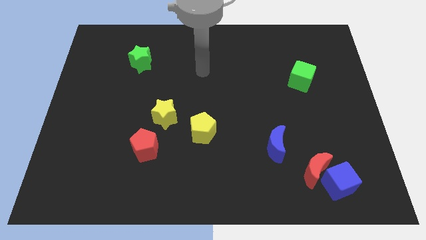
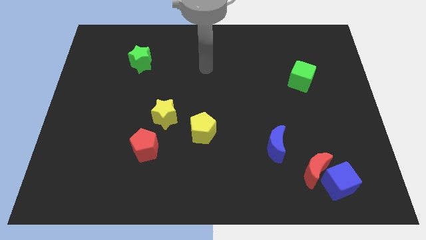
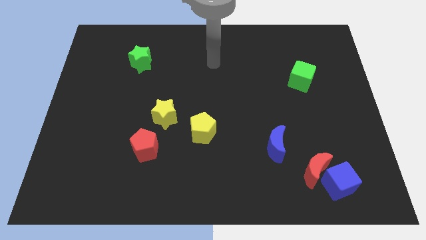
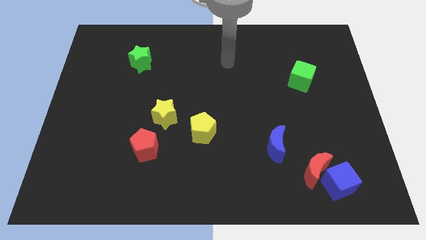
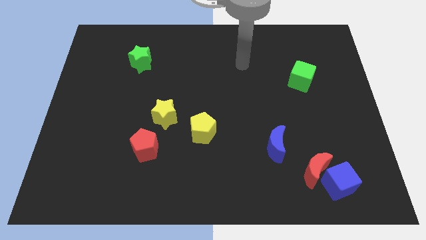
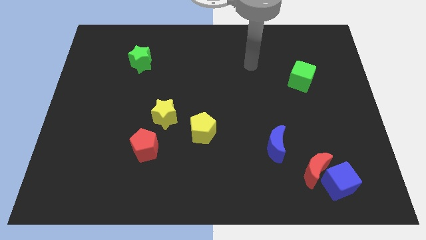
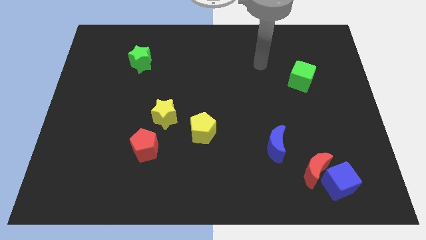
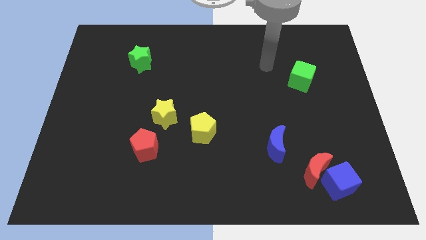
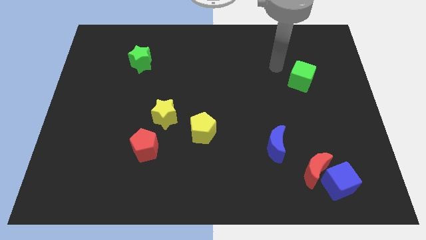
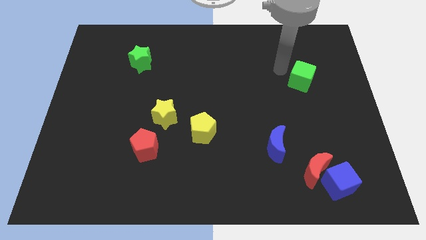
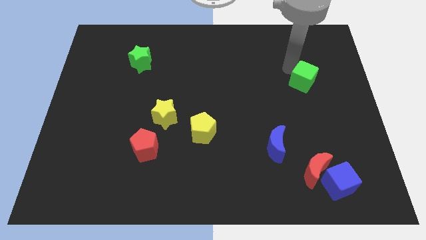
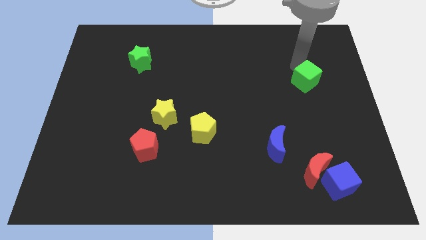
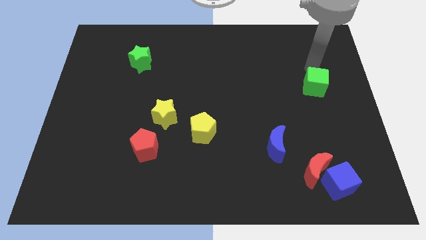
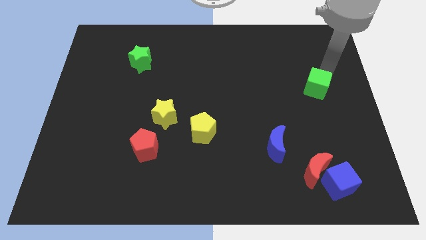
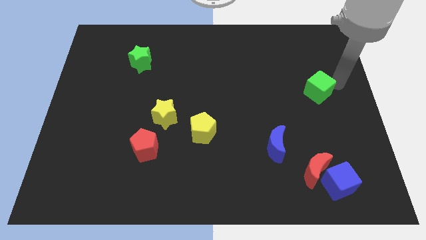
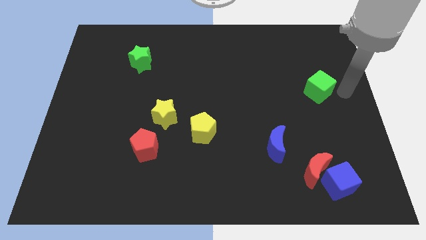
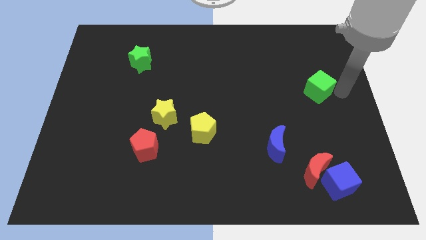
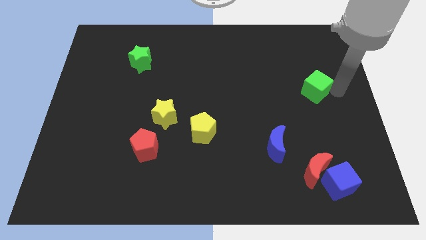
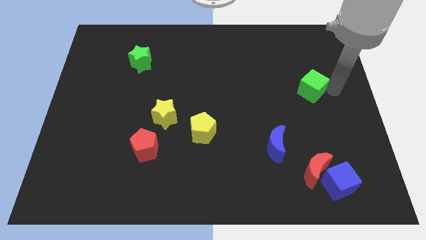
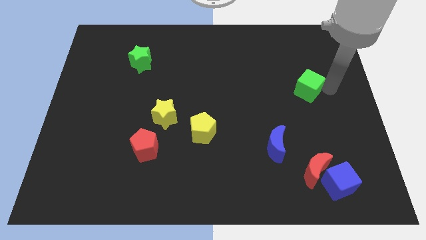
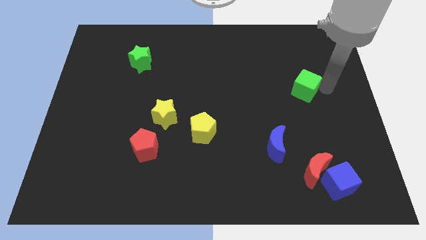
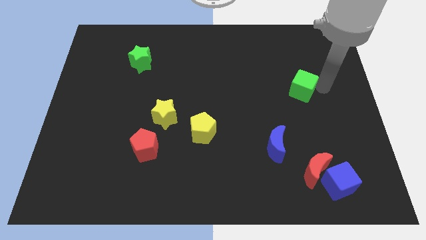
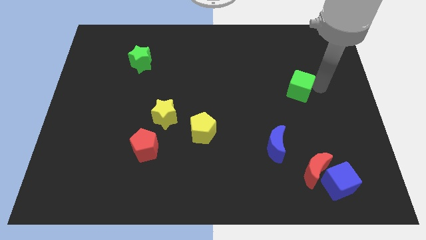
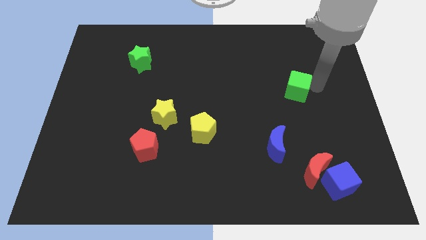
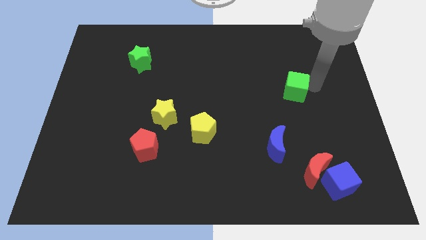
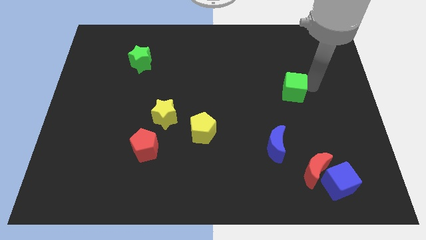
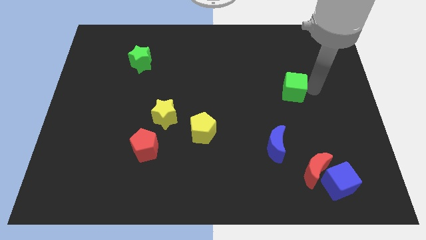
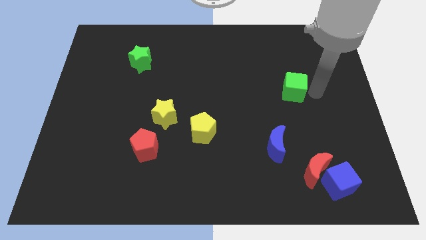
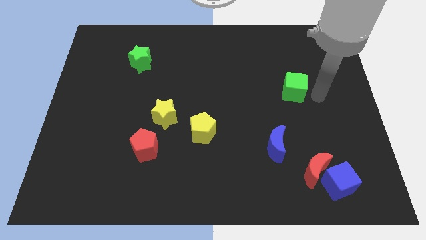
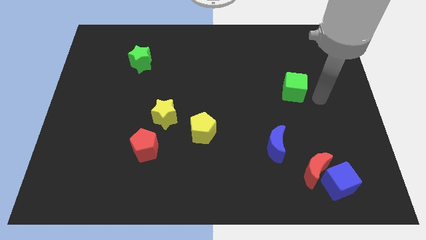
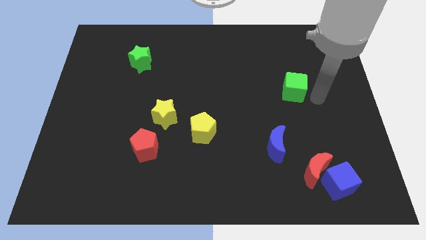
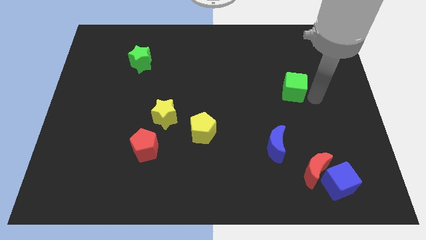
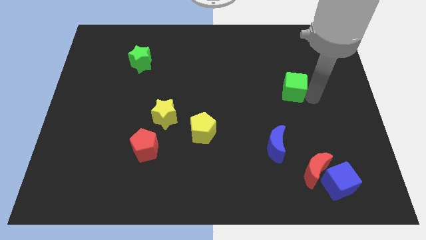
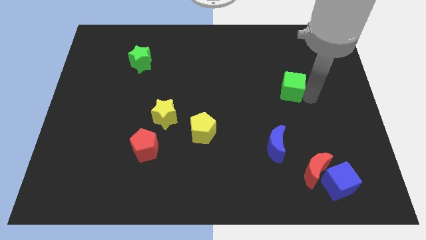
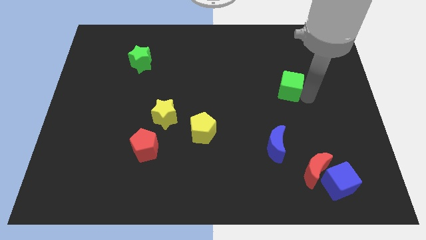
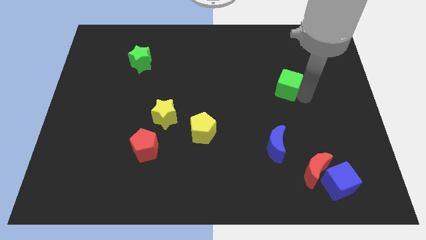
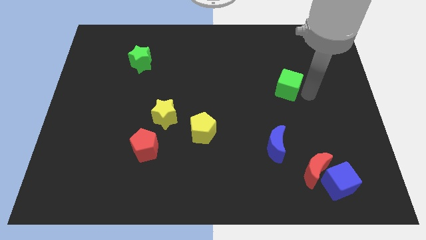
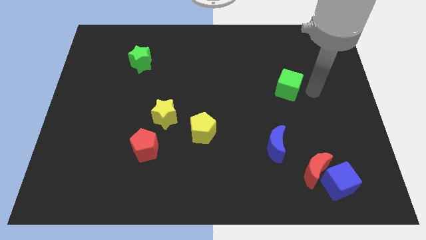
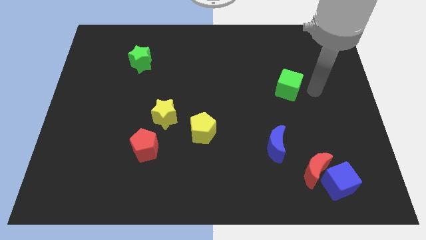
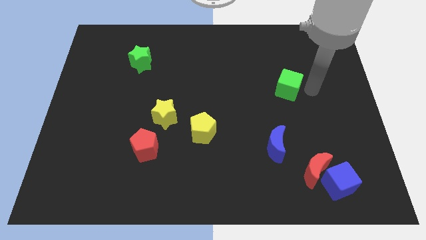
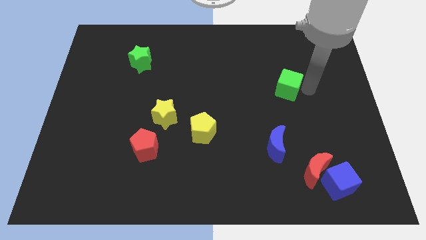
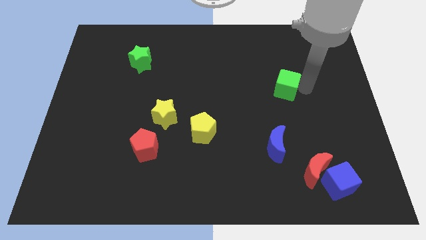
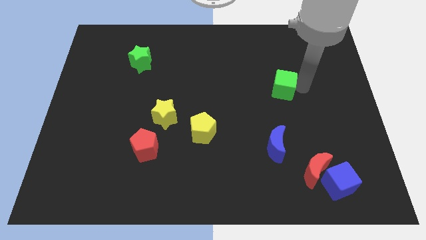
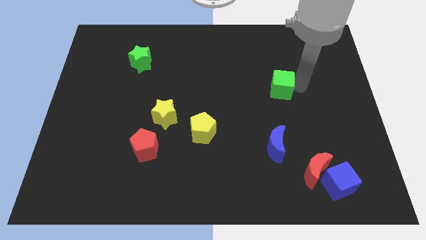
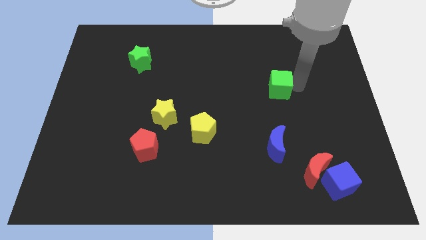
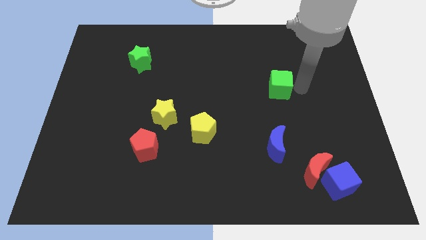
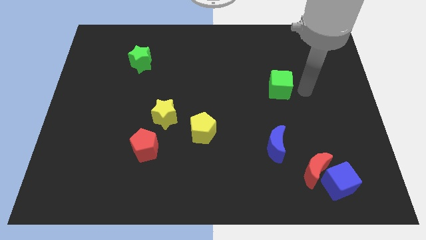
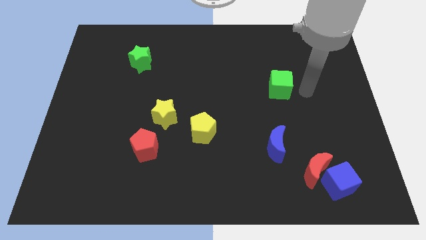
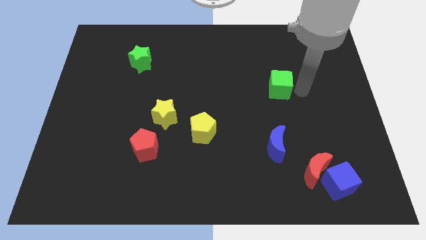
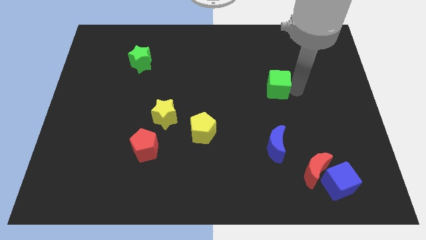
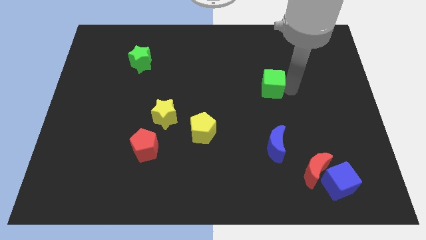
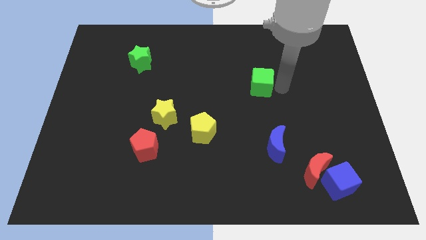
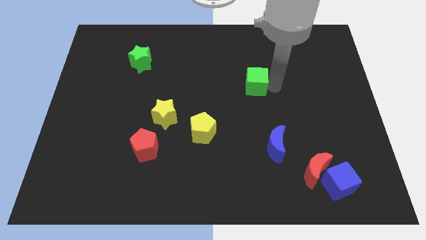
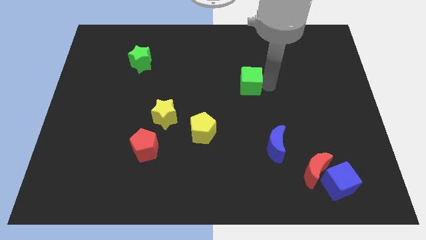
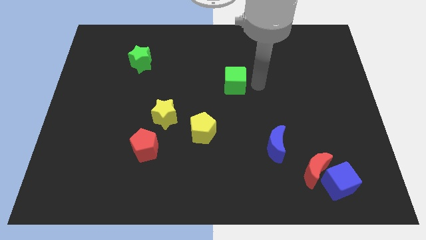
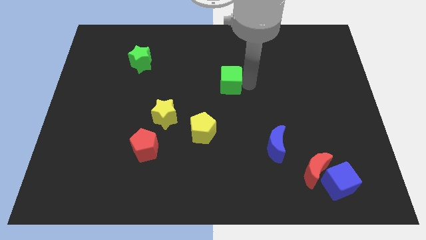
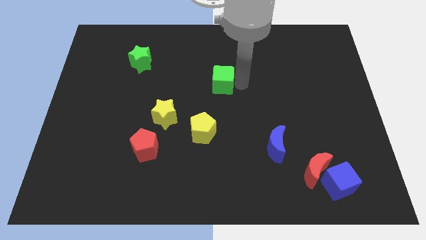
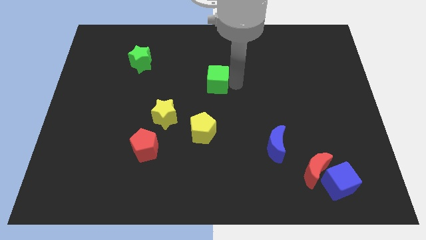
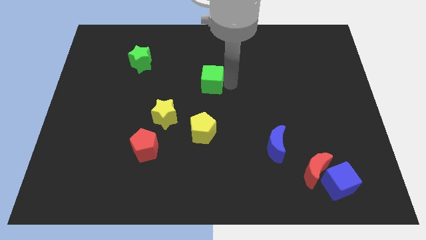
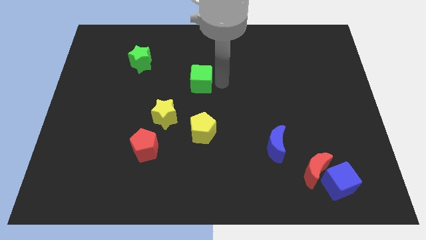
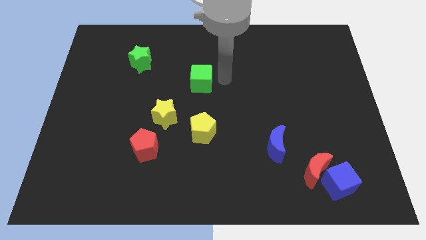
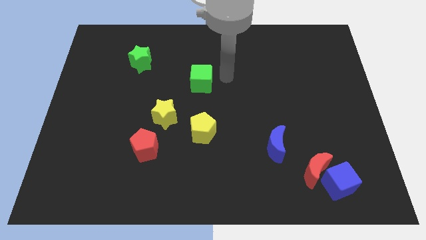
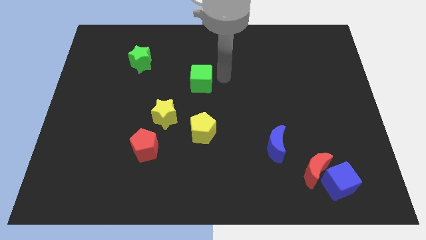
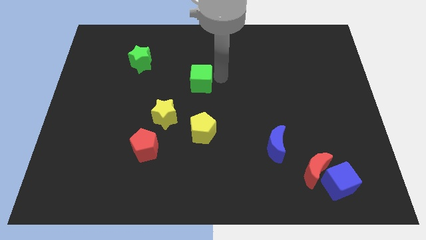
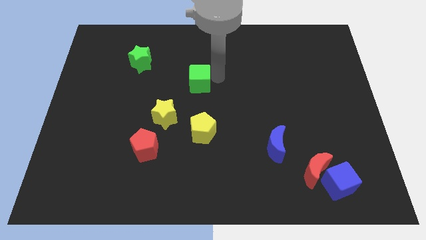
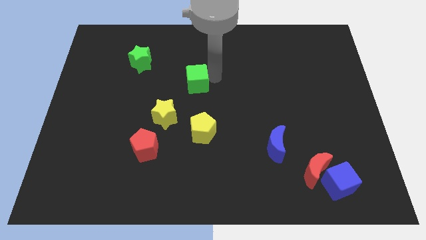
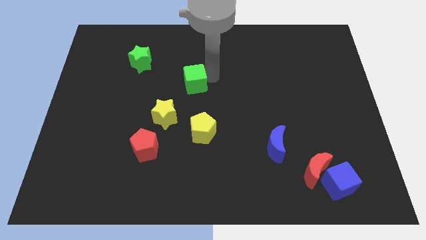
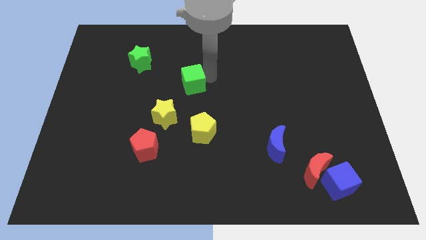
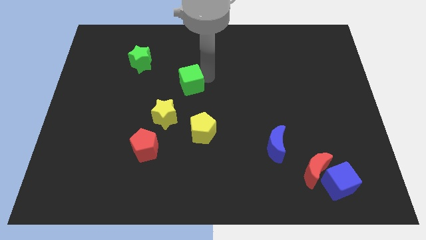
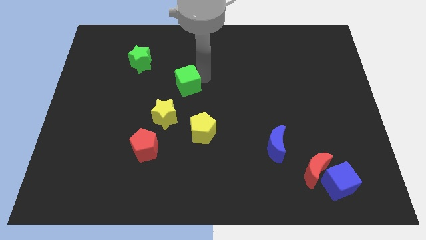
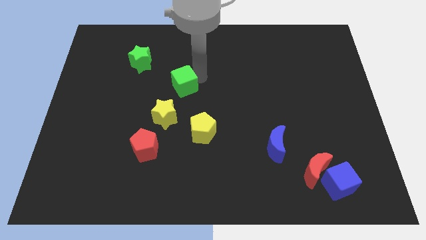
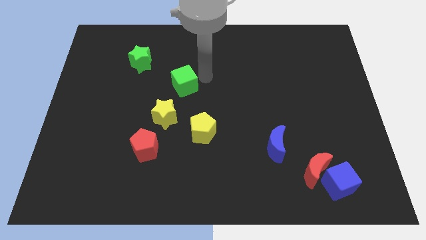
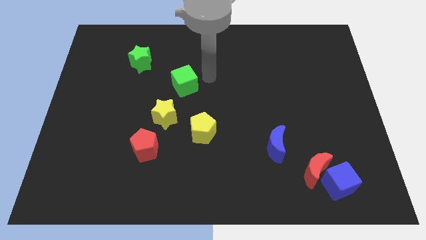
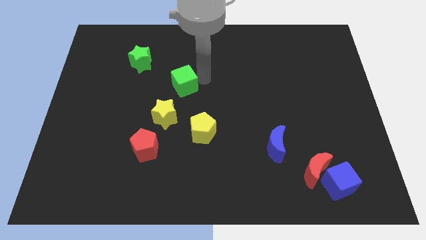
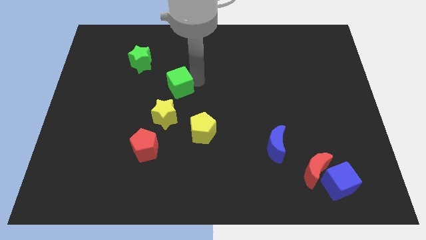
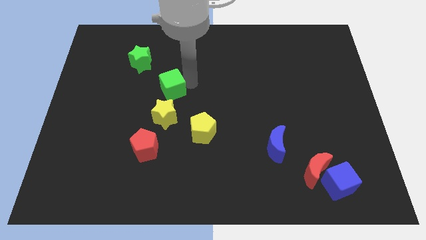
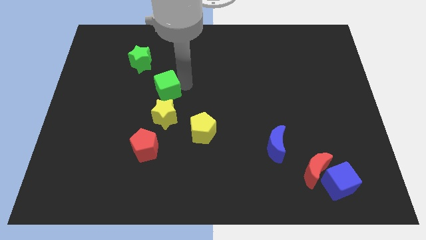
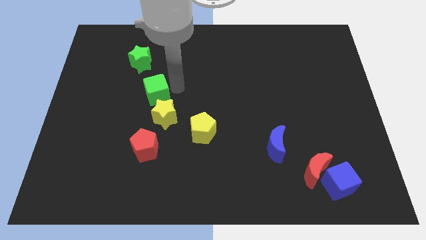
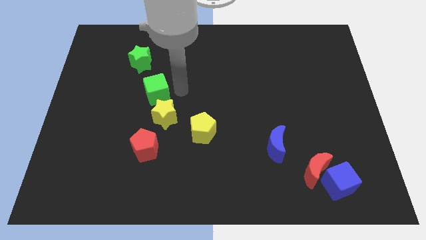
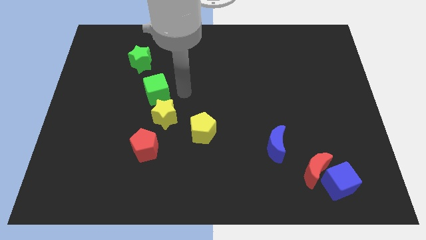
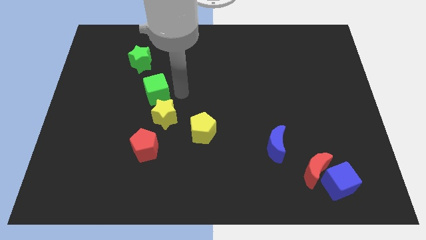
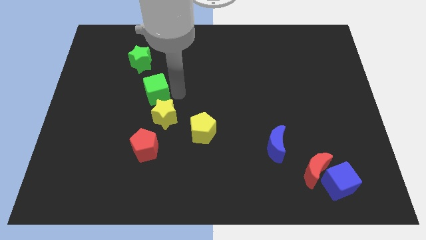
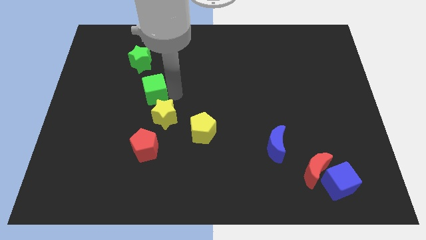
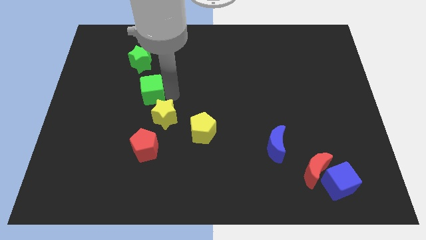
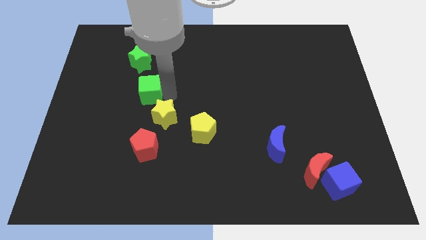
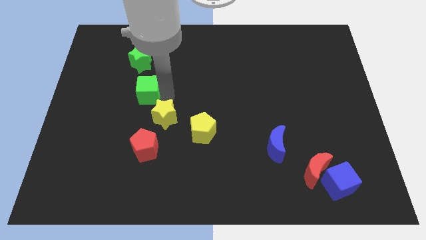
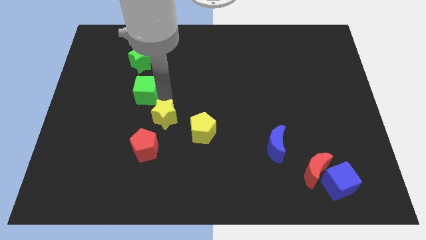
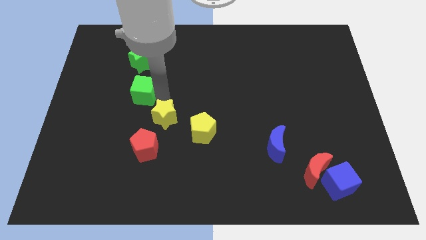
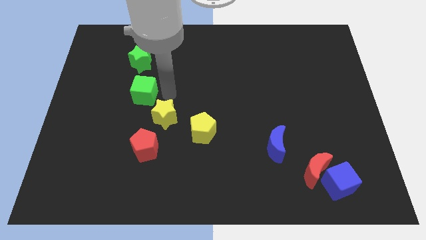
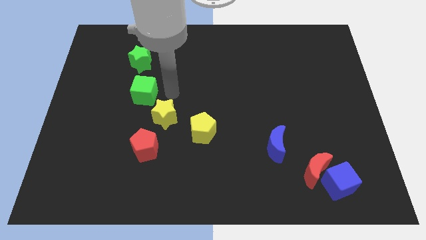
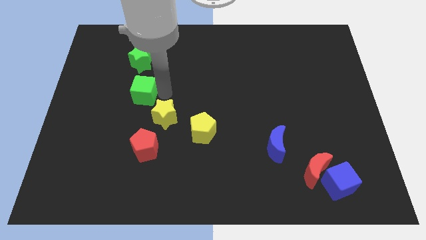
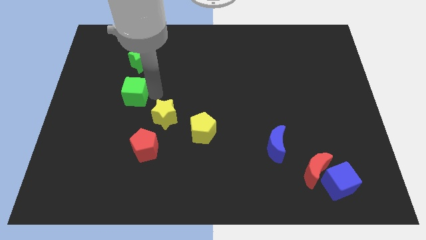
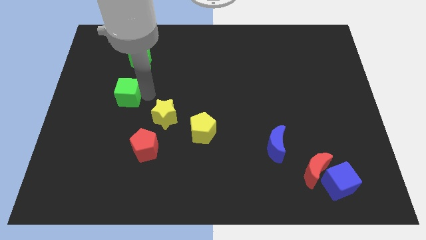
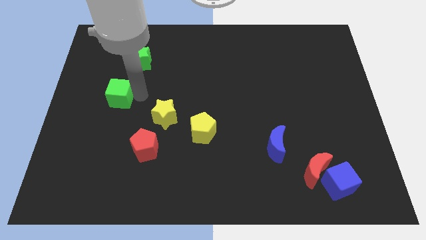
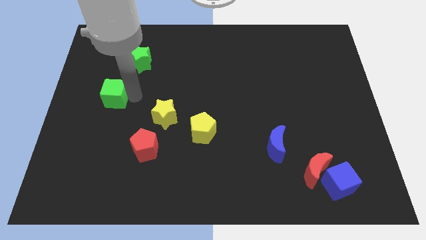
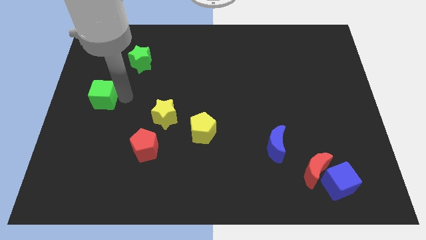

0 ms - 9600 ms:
put the green cube to the left side
